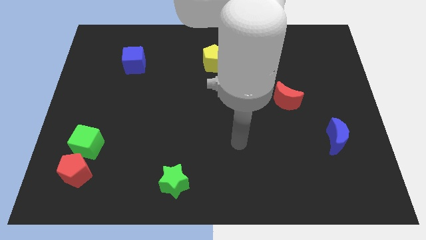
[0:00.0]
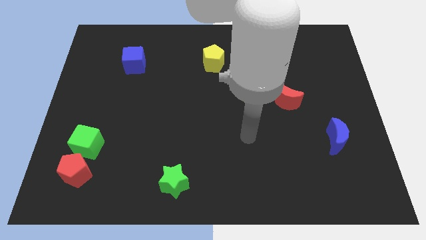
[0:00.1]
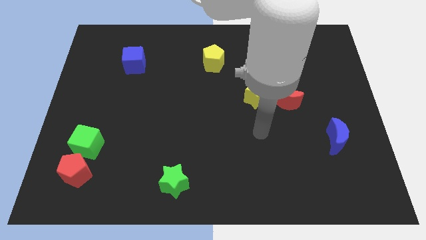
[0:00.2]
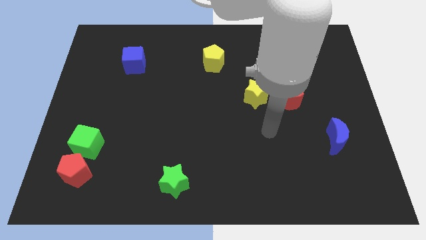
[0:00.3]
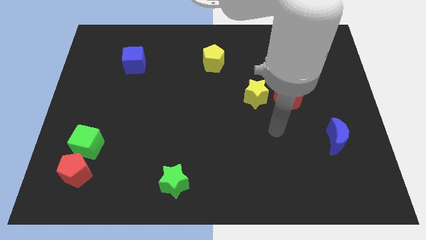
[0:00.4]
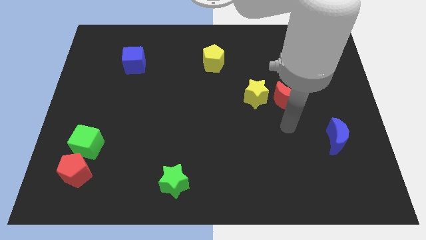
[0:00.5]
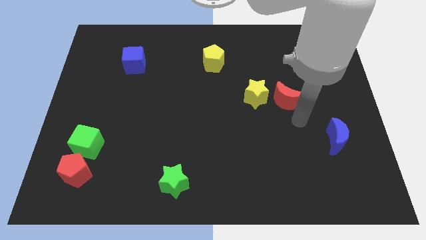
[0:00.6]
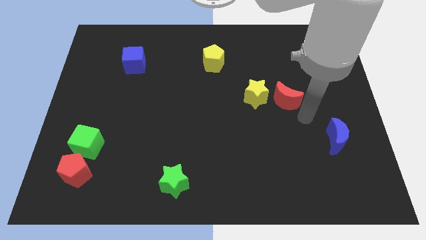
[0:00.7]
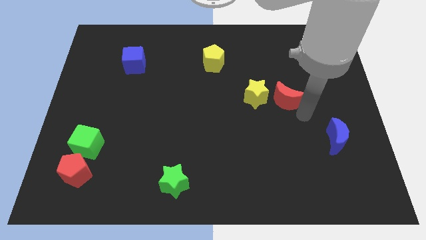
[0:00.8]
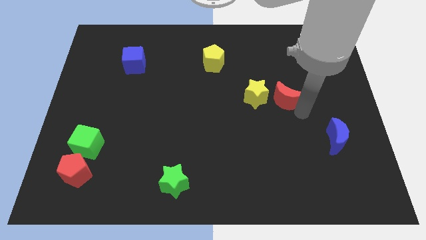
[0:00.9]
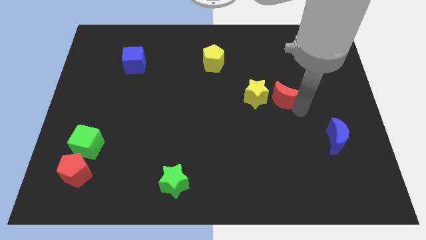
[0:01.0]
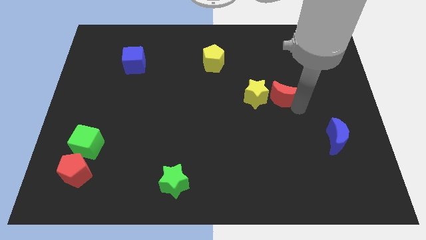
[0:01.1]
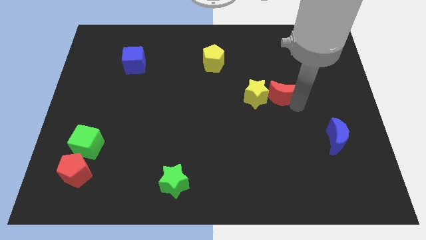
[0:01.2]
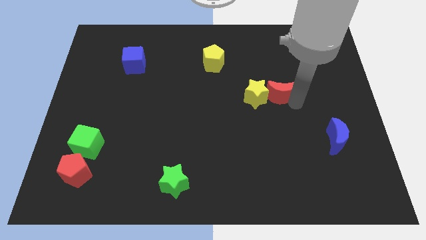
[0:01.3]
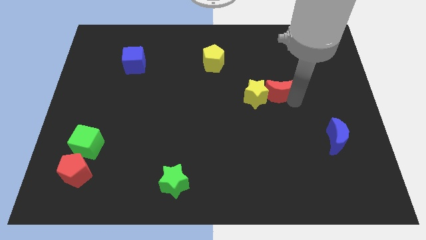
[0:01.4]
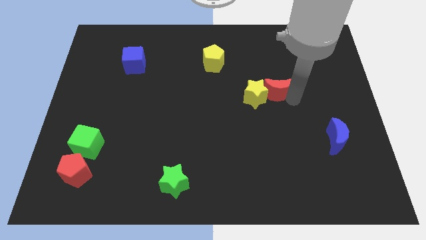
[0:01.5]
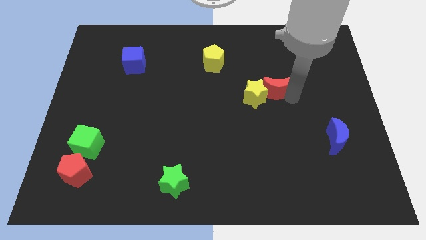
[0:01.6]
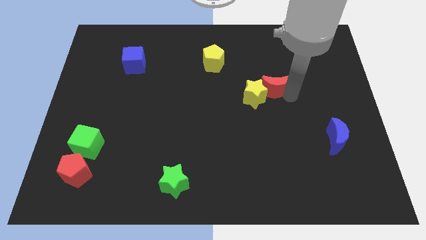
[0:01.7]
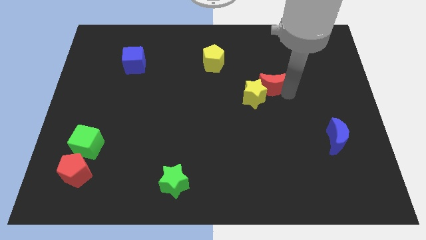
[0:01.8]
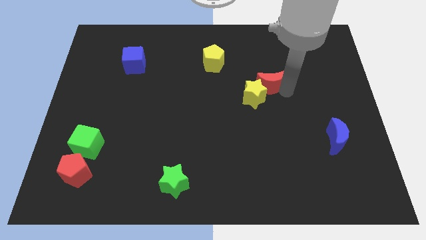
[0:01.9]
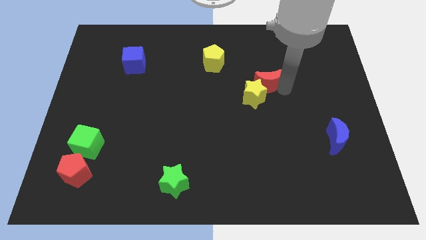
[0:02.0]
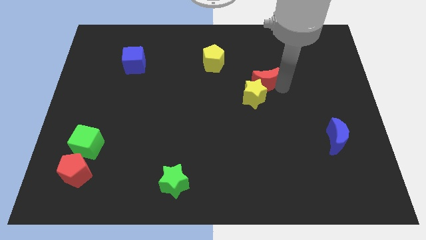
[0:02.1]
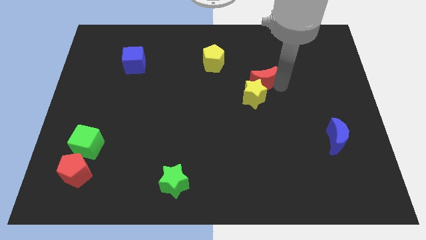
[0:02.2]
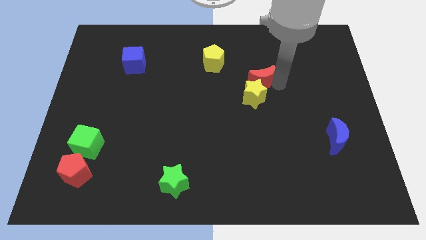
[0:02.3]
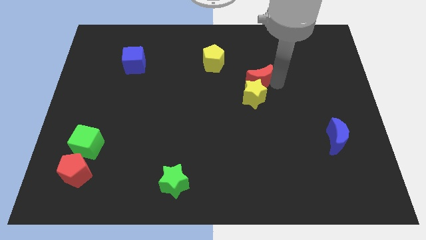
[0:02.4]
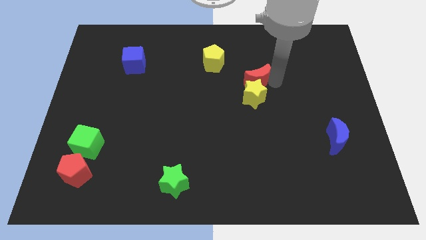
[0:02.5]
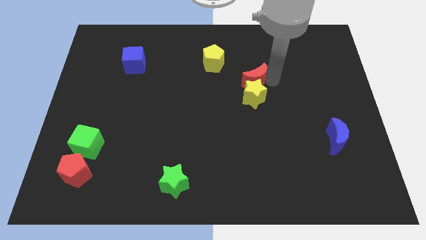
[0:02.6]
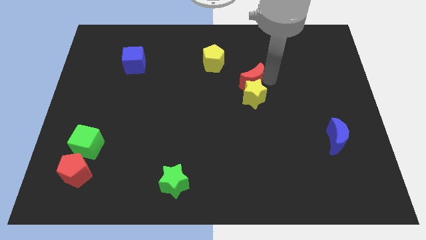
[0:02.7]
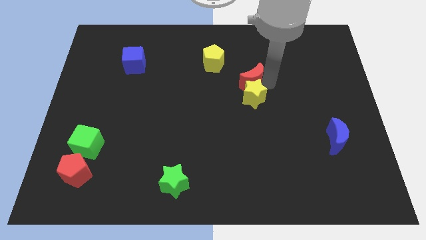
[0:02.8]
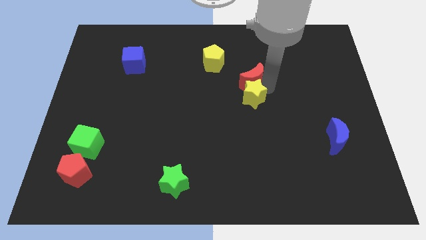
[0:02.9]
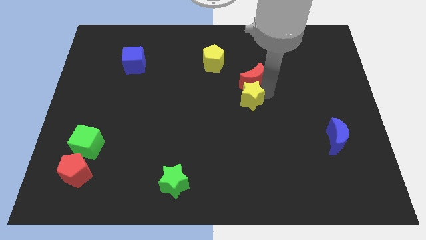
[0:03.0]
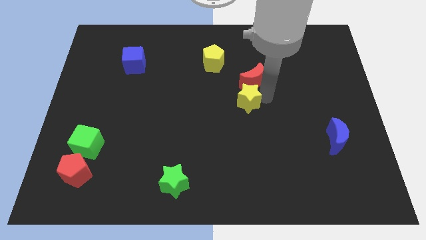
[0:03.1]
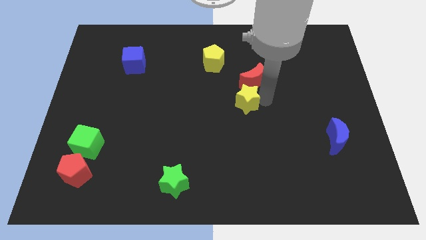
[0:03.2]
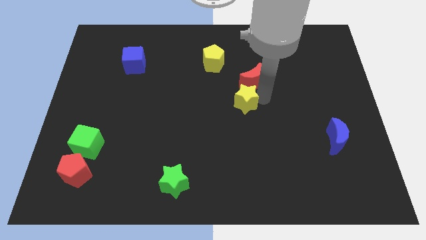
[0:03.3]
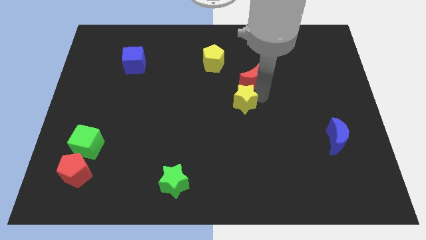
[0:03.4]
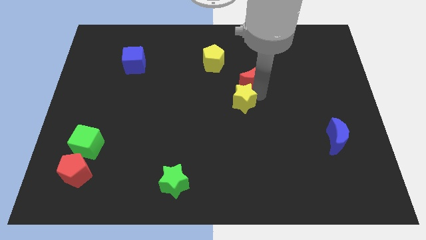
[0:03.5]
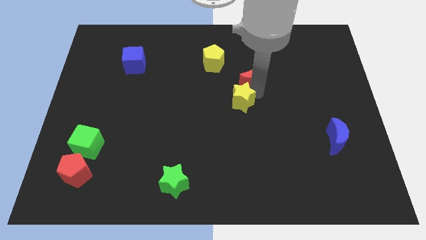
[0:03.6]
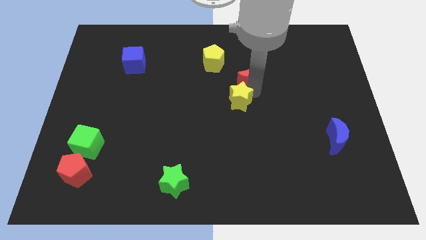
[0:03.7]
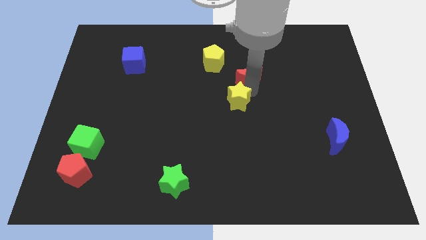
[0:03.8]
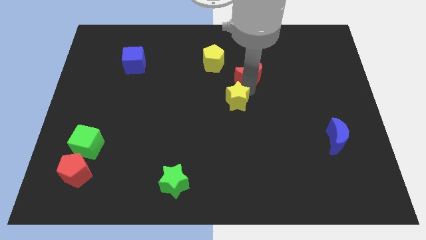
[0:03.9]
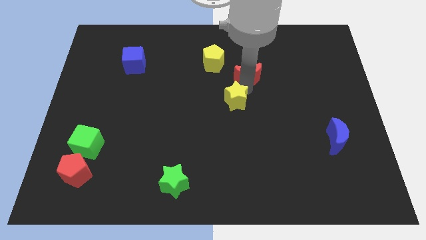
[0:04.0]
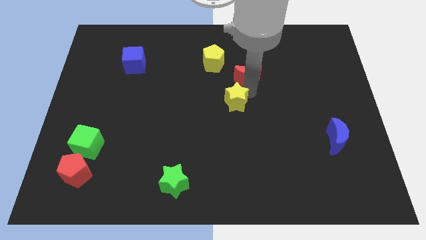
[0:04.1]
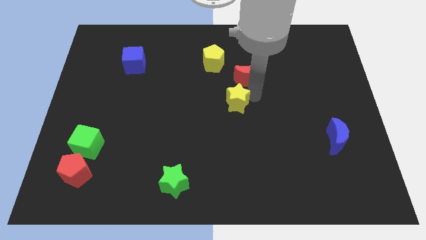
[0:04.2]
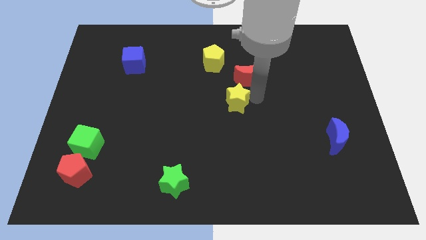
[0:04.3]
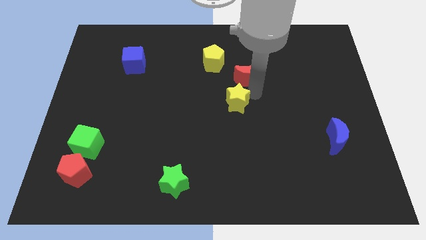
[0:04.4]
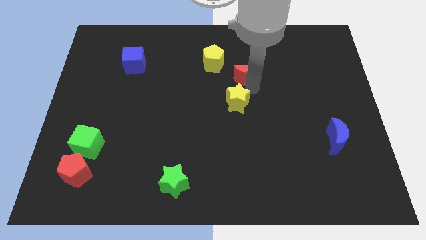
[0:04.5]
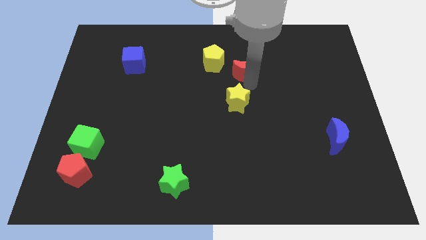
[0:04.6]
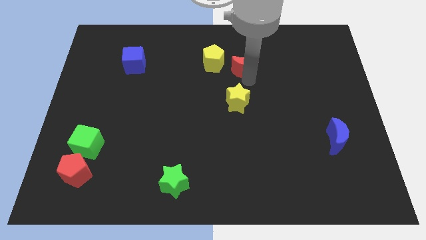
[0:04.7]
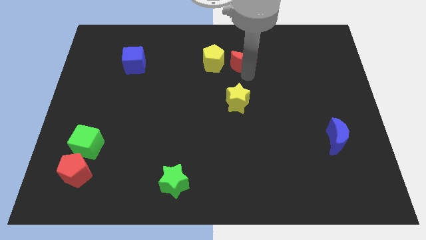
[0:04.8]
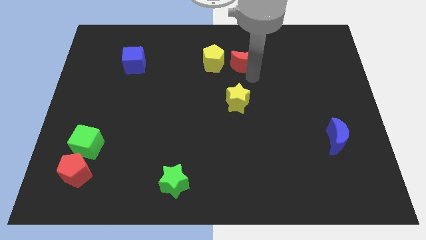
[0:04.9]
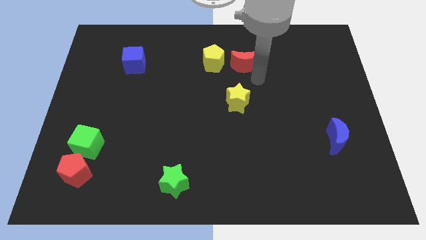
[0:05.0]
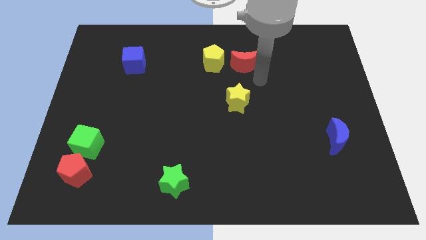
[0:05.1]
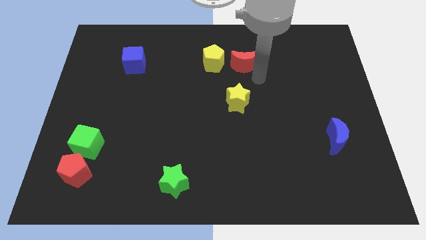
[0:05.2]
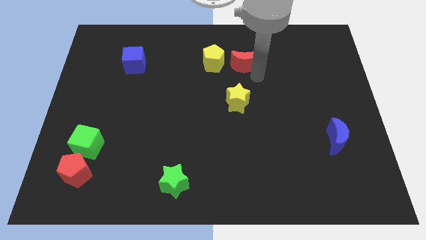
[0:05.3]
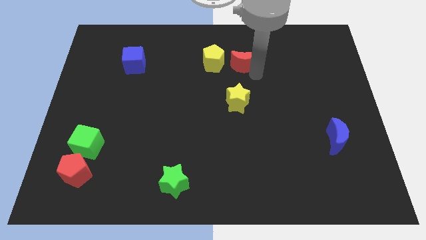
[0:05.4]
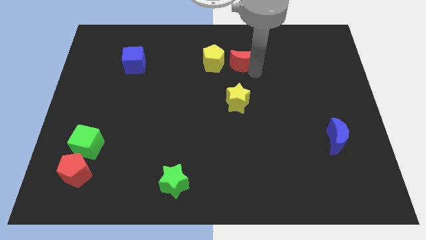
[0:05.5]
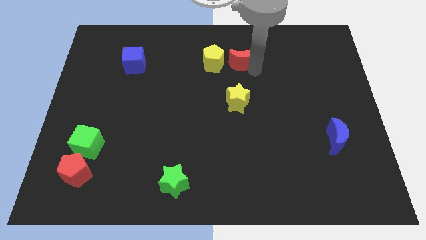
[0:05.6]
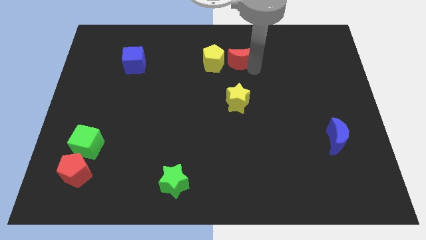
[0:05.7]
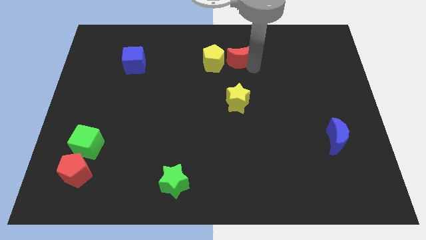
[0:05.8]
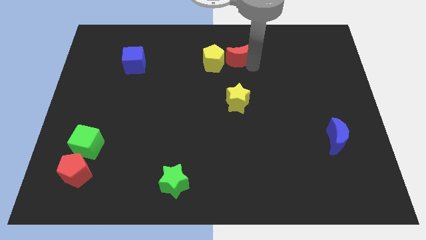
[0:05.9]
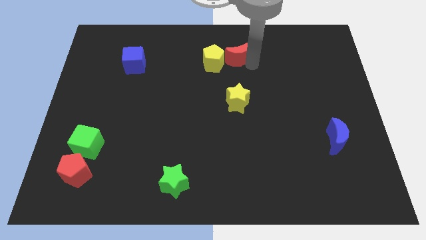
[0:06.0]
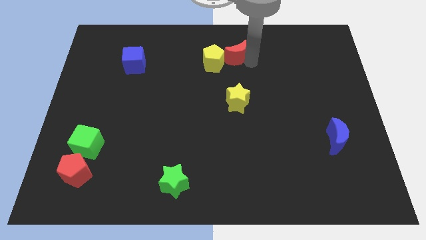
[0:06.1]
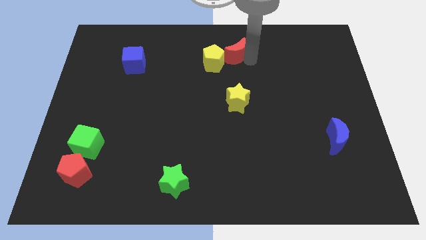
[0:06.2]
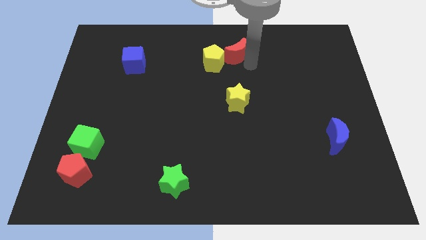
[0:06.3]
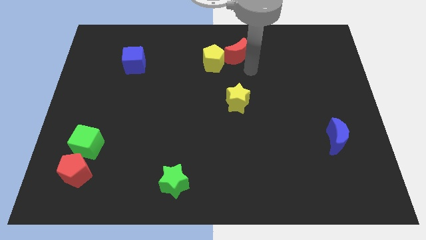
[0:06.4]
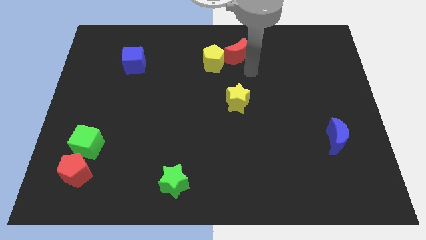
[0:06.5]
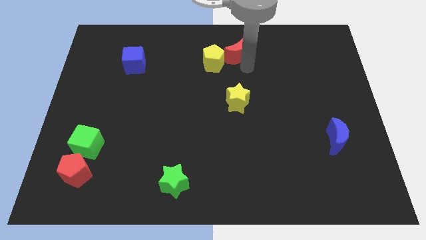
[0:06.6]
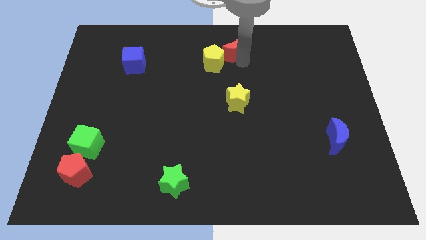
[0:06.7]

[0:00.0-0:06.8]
move the red moon to the top
